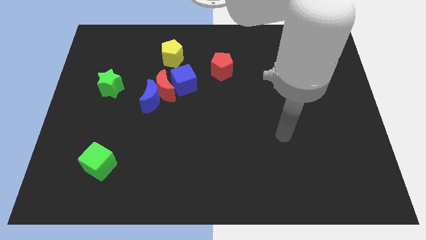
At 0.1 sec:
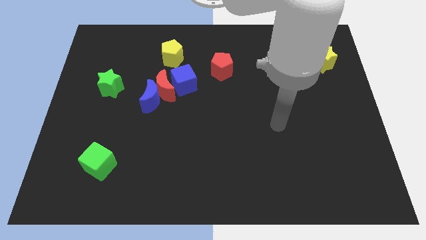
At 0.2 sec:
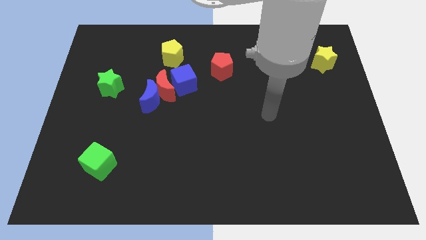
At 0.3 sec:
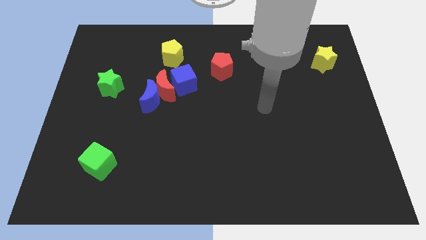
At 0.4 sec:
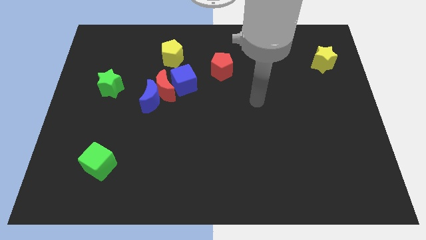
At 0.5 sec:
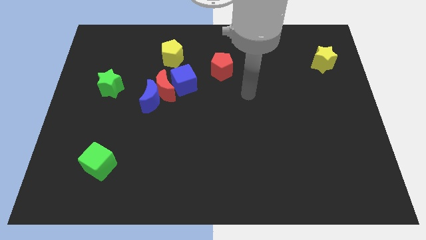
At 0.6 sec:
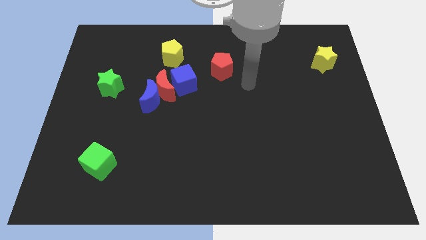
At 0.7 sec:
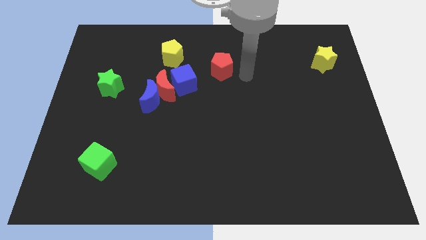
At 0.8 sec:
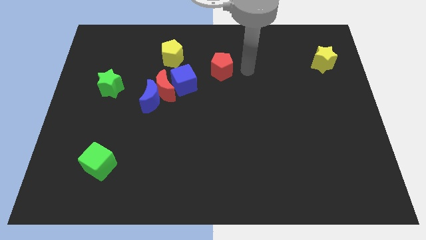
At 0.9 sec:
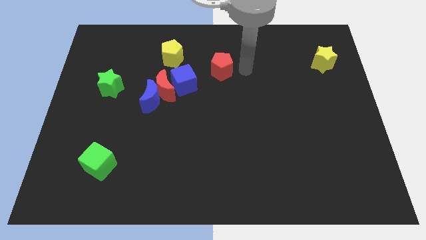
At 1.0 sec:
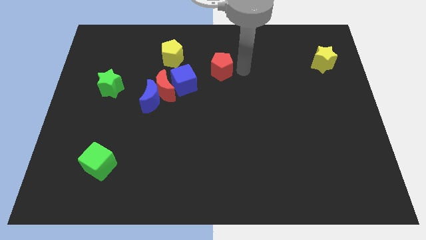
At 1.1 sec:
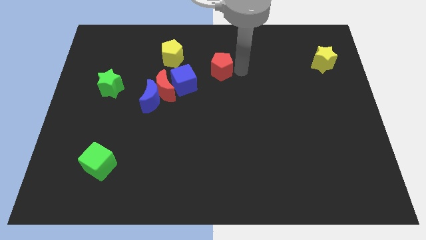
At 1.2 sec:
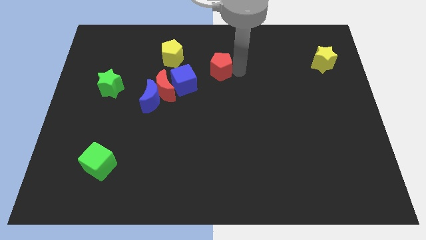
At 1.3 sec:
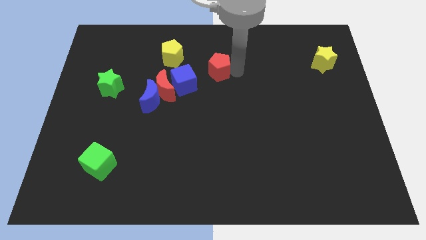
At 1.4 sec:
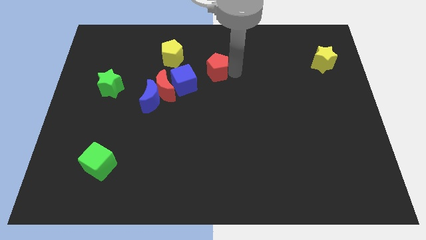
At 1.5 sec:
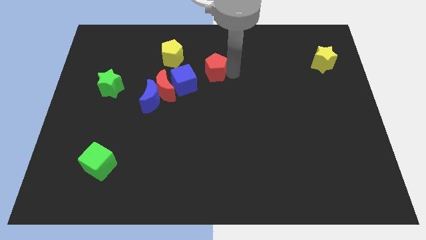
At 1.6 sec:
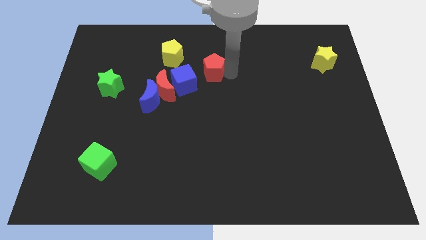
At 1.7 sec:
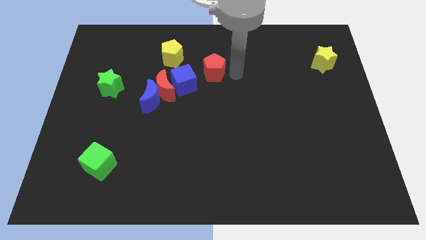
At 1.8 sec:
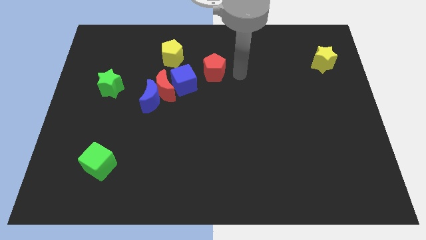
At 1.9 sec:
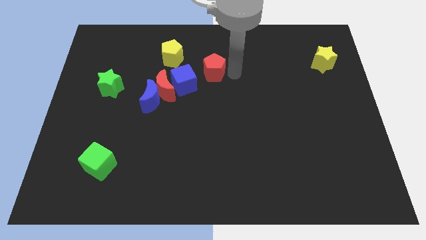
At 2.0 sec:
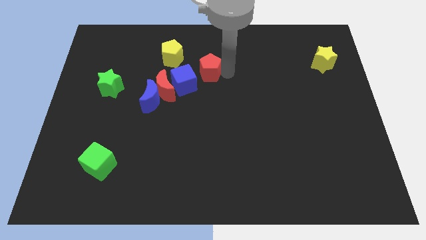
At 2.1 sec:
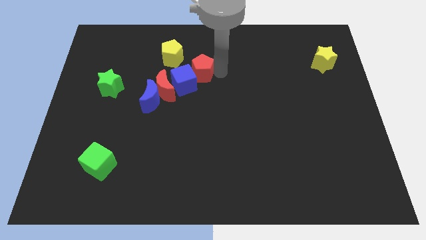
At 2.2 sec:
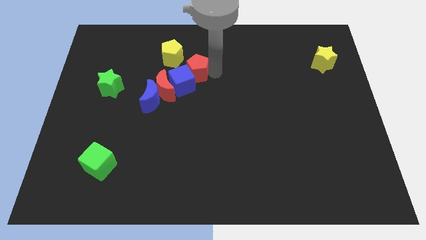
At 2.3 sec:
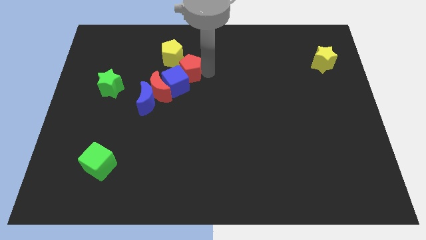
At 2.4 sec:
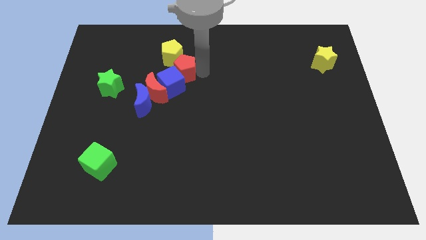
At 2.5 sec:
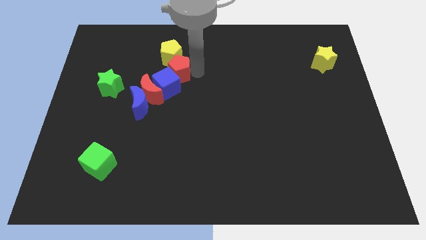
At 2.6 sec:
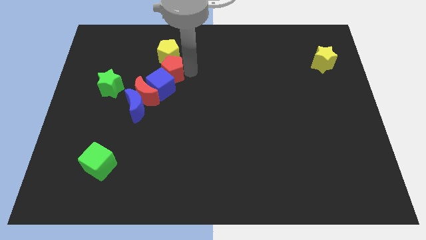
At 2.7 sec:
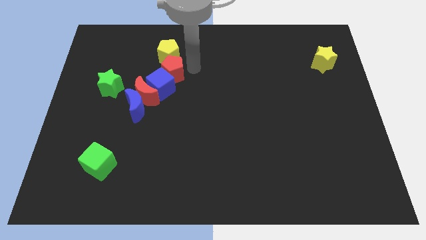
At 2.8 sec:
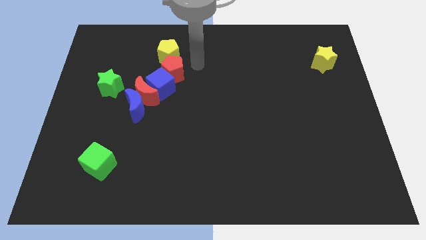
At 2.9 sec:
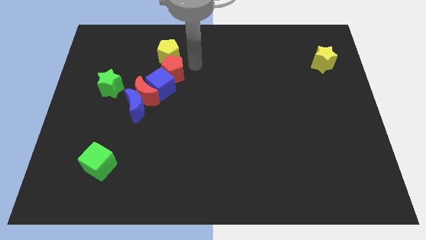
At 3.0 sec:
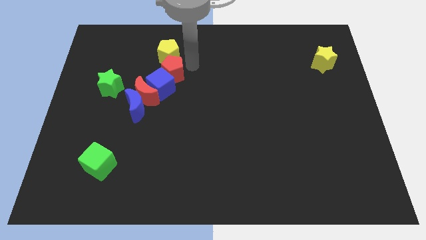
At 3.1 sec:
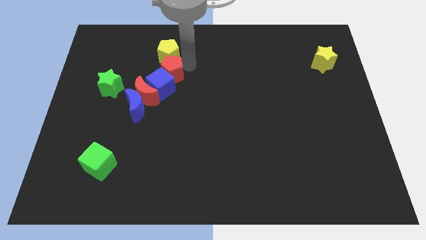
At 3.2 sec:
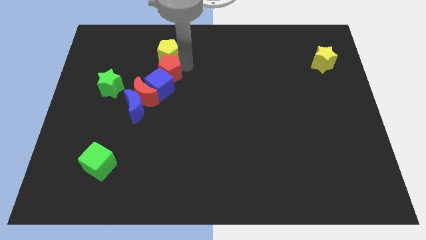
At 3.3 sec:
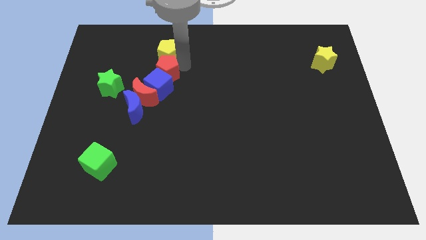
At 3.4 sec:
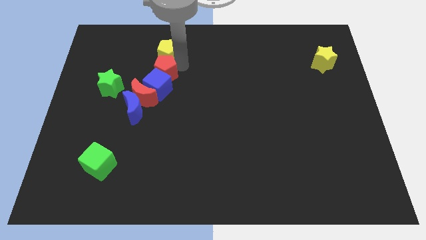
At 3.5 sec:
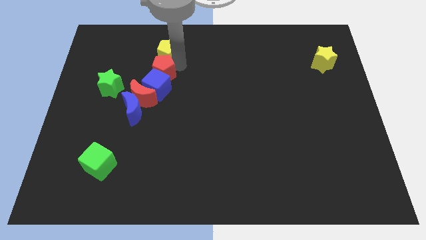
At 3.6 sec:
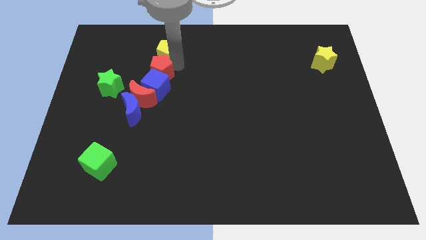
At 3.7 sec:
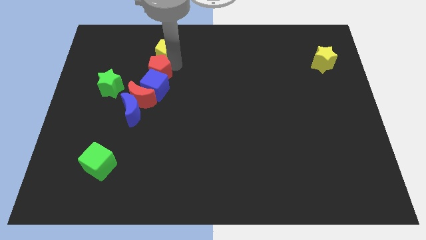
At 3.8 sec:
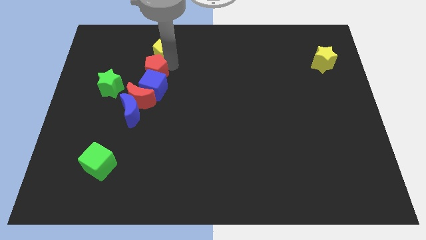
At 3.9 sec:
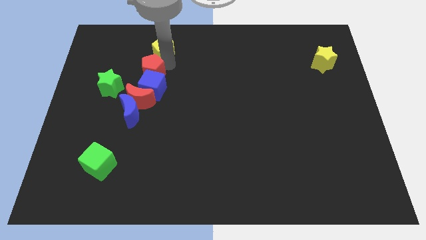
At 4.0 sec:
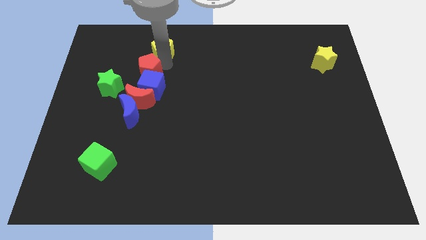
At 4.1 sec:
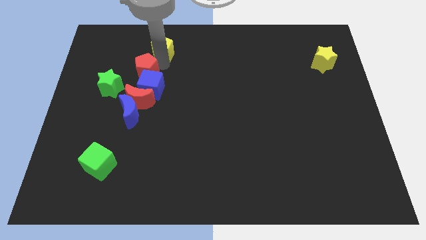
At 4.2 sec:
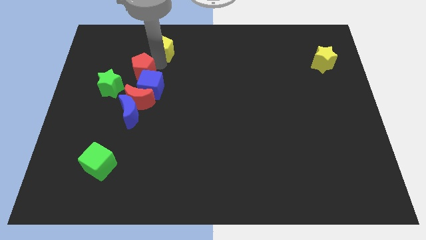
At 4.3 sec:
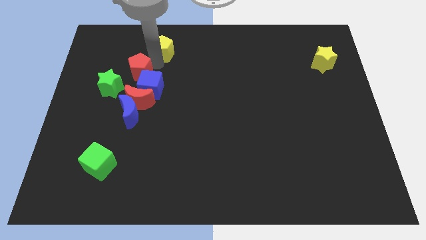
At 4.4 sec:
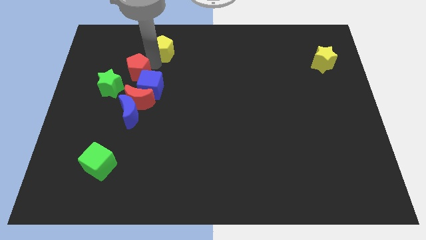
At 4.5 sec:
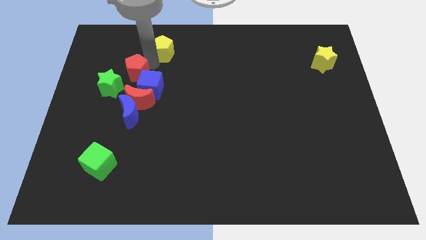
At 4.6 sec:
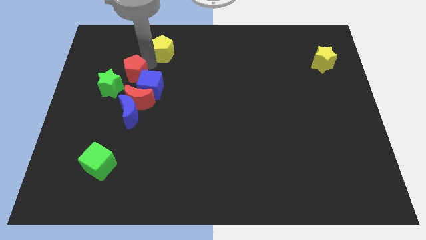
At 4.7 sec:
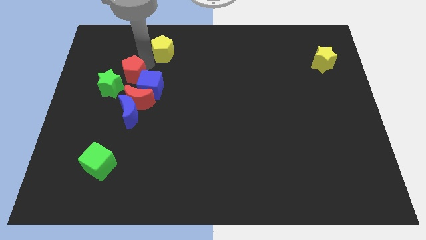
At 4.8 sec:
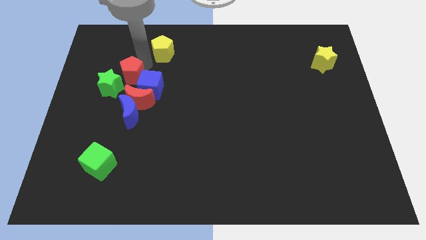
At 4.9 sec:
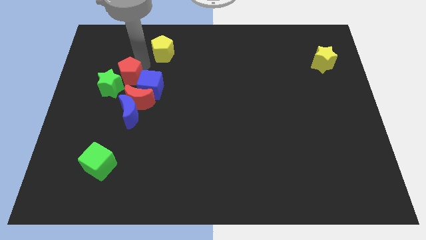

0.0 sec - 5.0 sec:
slide the red pentagon close to the green star

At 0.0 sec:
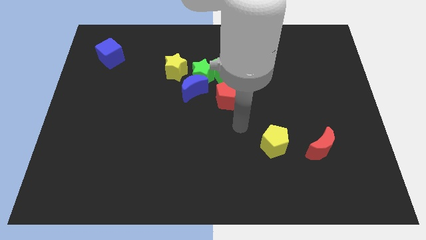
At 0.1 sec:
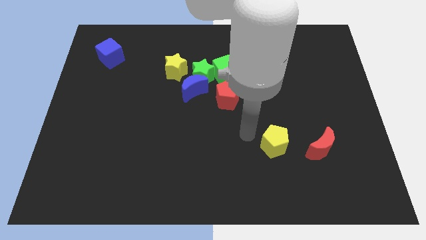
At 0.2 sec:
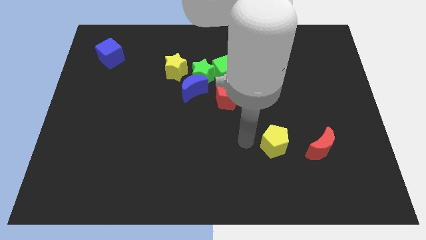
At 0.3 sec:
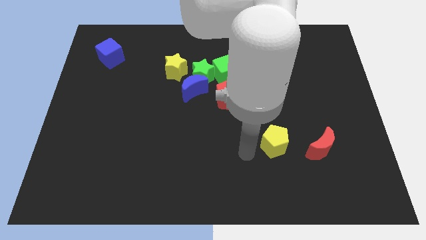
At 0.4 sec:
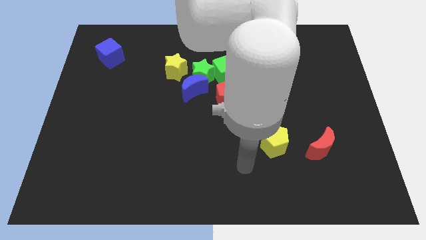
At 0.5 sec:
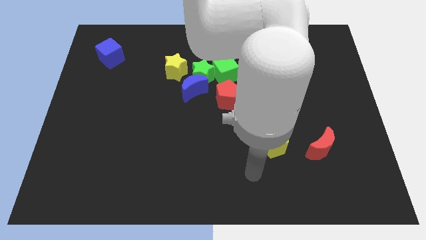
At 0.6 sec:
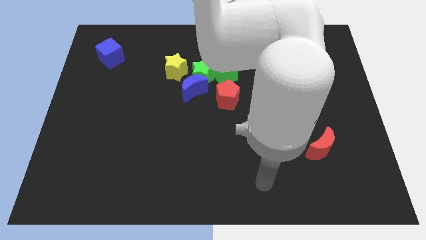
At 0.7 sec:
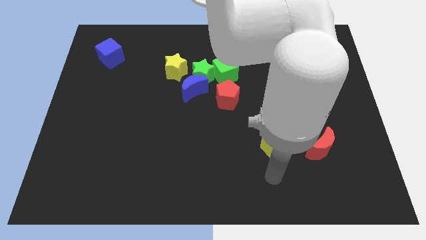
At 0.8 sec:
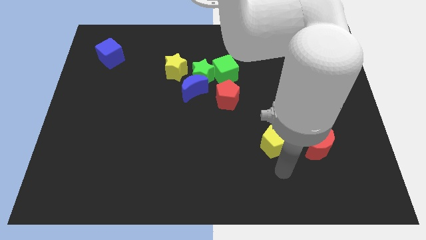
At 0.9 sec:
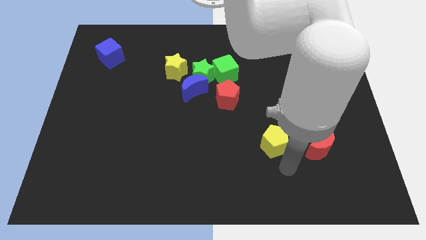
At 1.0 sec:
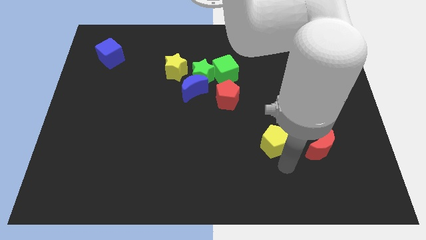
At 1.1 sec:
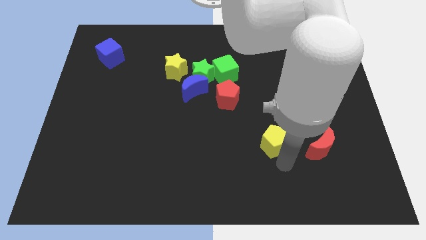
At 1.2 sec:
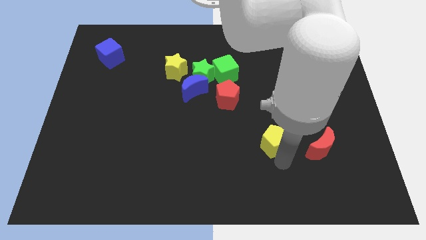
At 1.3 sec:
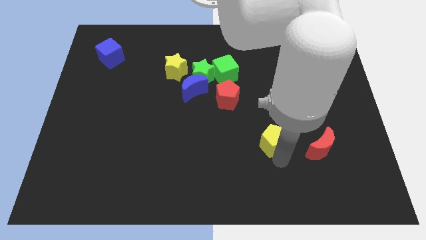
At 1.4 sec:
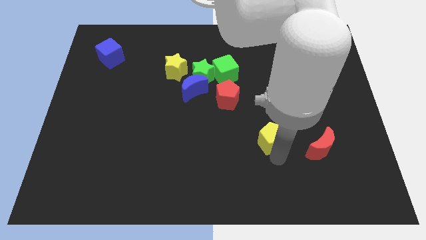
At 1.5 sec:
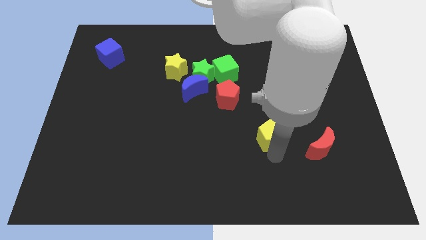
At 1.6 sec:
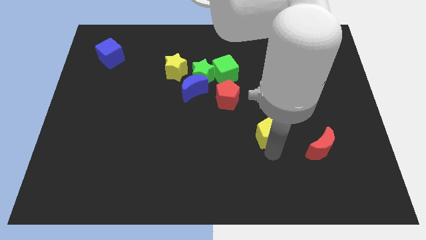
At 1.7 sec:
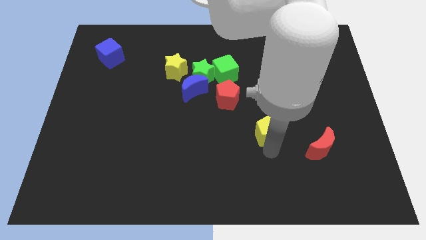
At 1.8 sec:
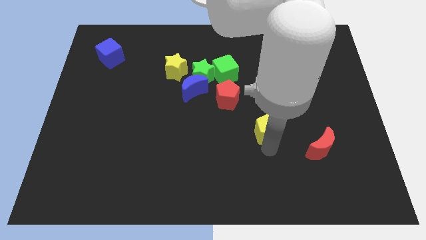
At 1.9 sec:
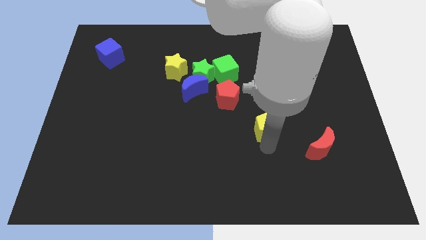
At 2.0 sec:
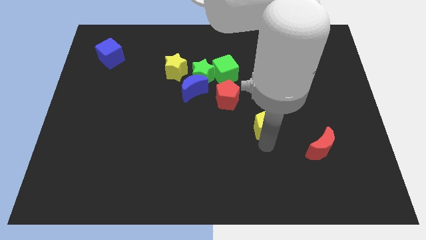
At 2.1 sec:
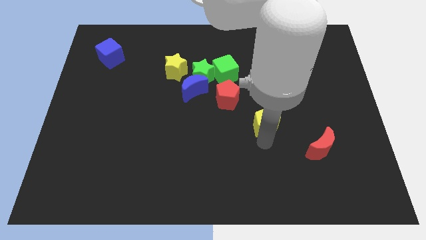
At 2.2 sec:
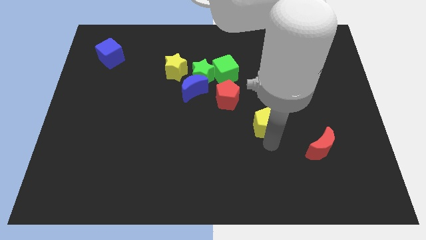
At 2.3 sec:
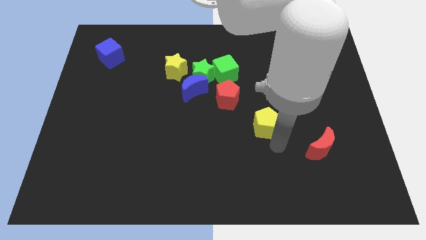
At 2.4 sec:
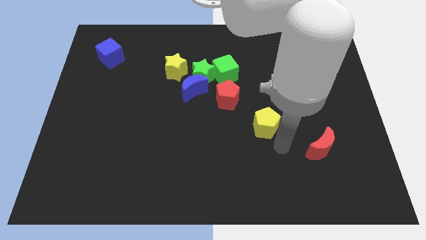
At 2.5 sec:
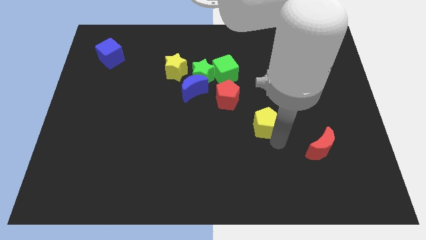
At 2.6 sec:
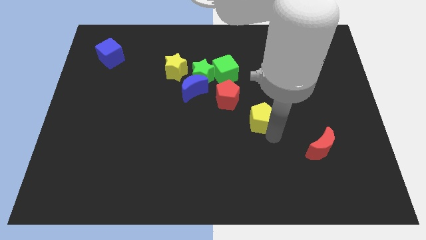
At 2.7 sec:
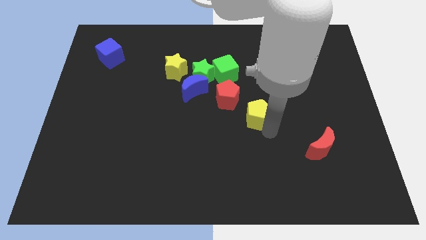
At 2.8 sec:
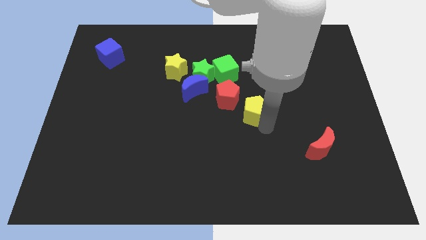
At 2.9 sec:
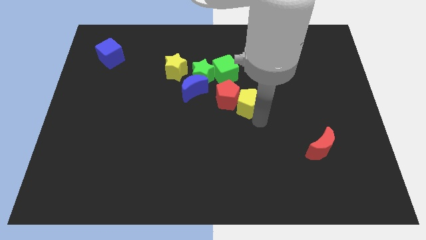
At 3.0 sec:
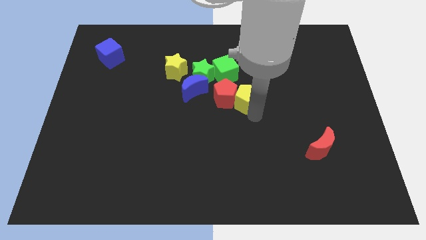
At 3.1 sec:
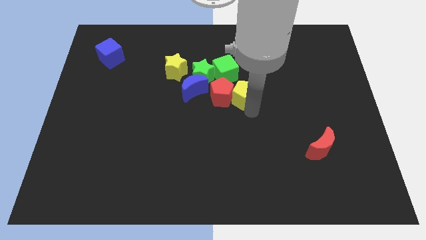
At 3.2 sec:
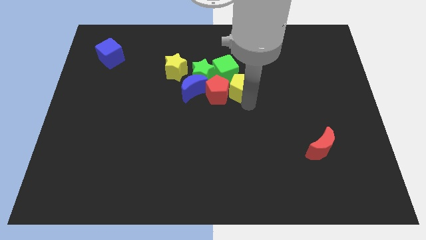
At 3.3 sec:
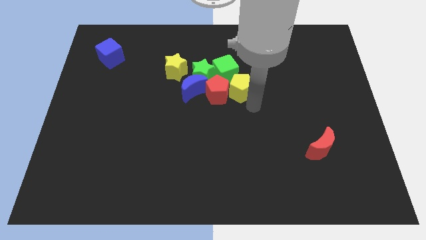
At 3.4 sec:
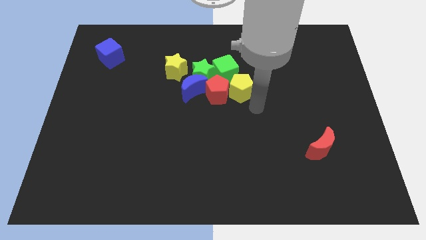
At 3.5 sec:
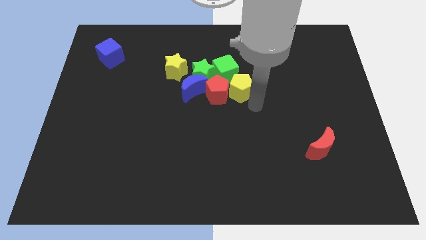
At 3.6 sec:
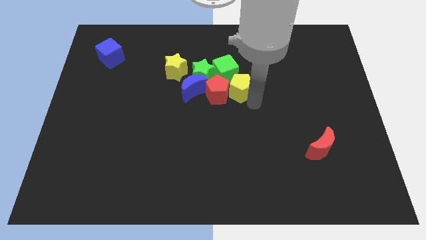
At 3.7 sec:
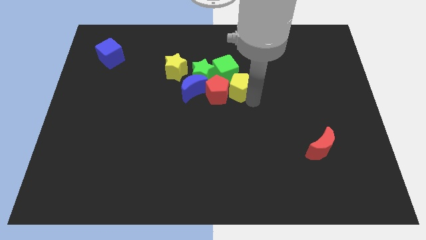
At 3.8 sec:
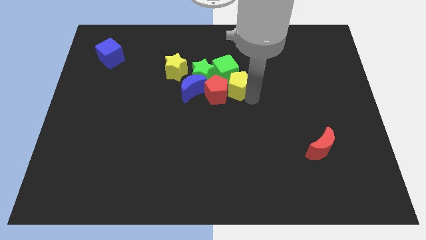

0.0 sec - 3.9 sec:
put the yellow pentagon close to the green cube
